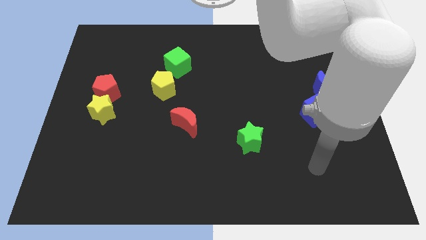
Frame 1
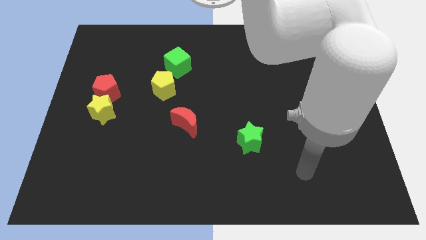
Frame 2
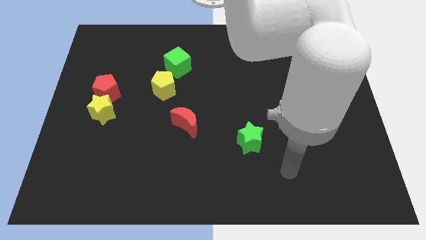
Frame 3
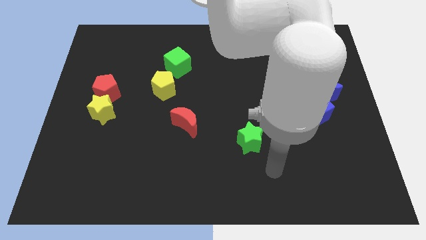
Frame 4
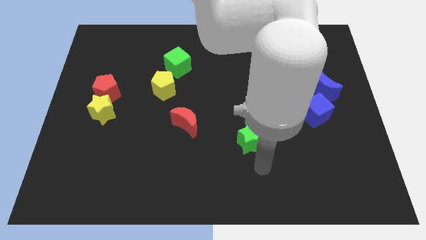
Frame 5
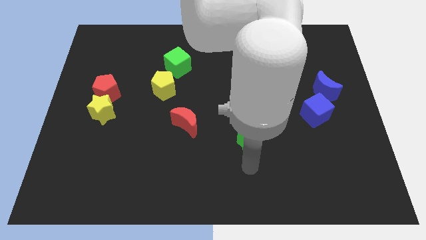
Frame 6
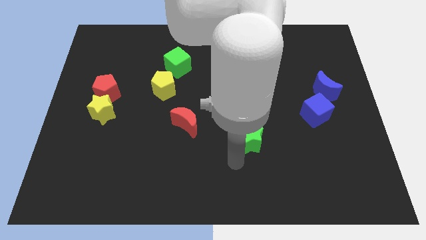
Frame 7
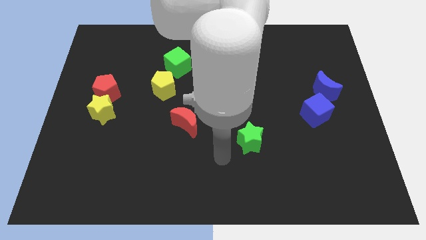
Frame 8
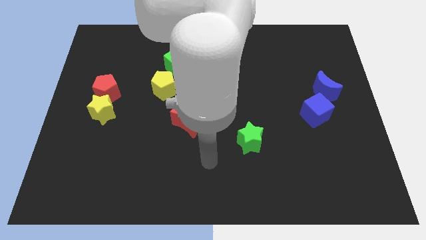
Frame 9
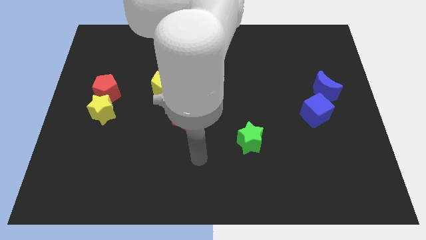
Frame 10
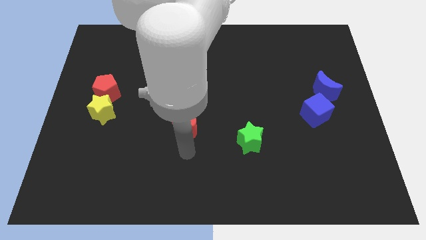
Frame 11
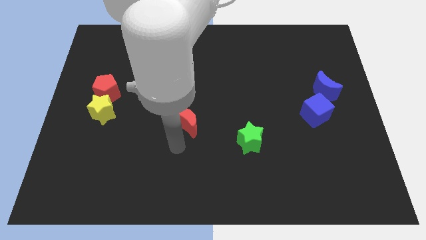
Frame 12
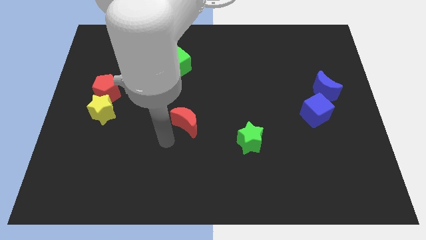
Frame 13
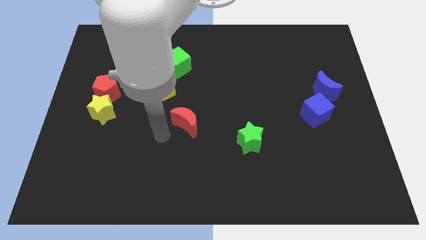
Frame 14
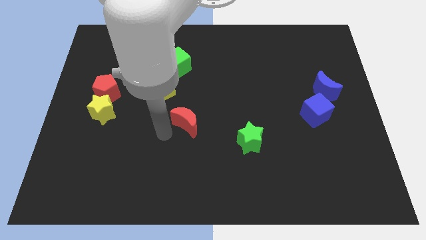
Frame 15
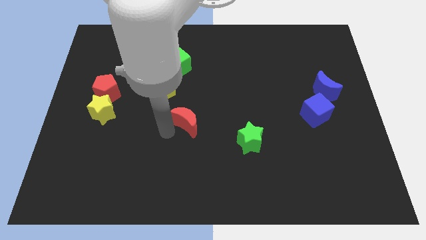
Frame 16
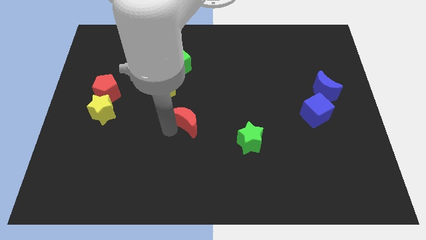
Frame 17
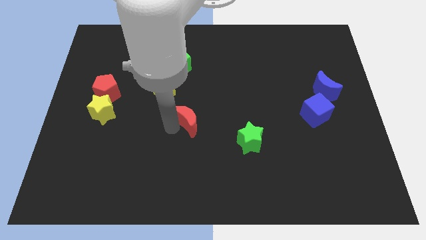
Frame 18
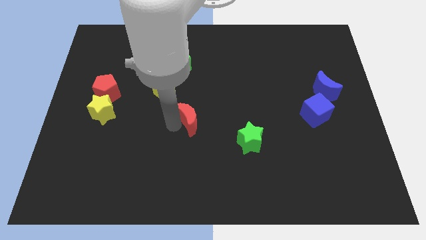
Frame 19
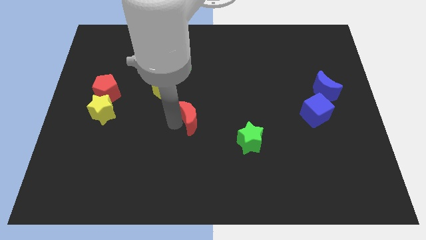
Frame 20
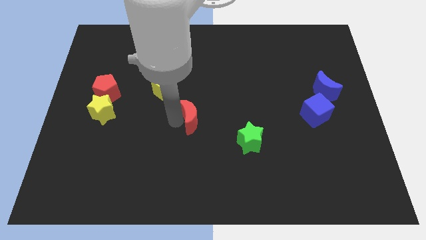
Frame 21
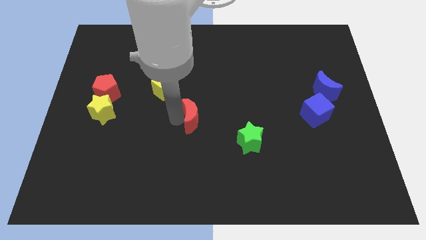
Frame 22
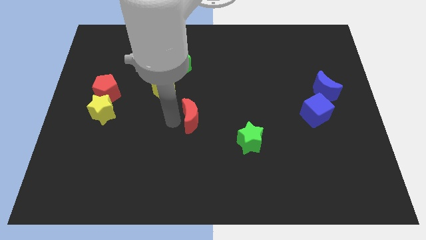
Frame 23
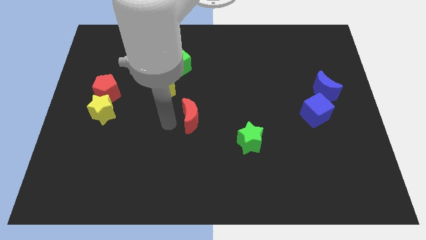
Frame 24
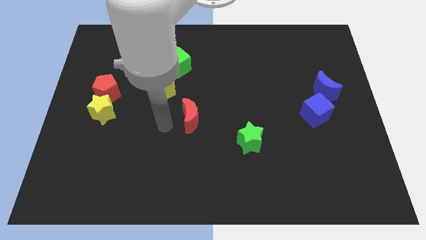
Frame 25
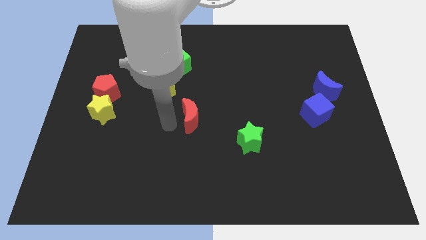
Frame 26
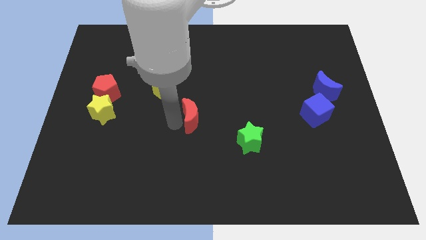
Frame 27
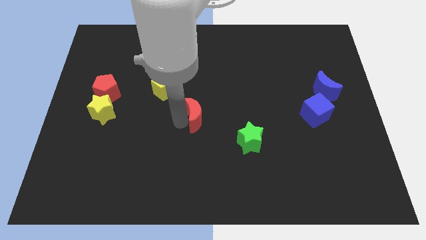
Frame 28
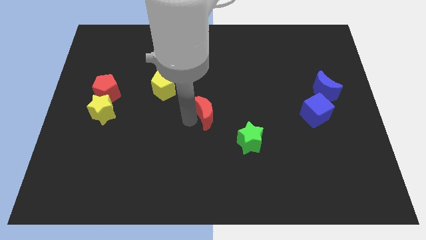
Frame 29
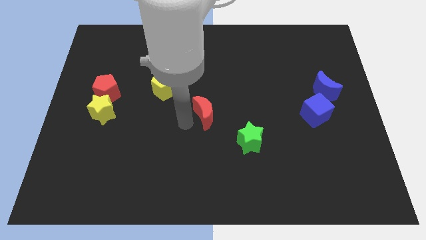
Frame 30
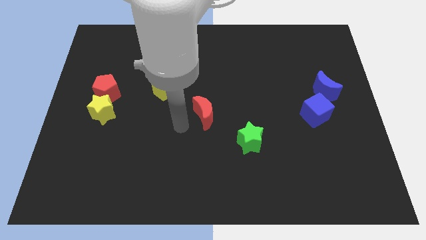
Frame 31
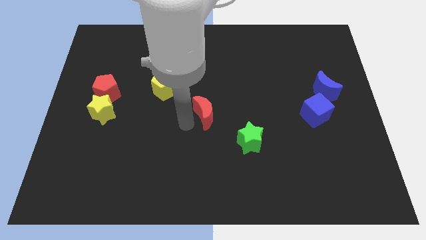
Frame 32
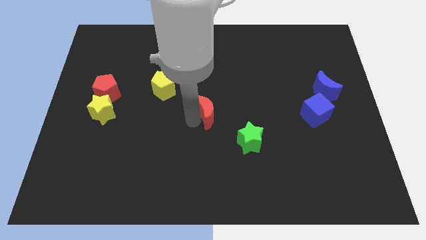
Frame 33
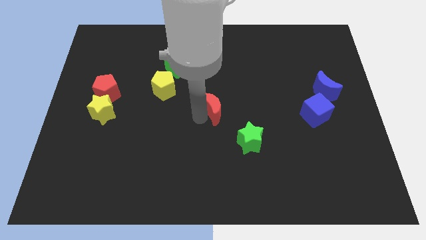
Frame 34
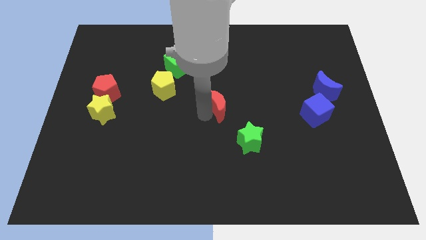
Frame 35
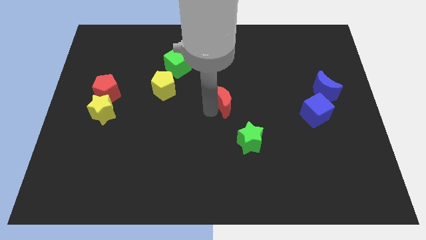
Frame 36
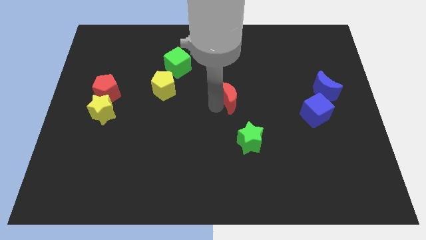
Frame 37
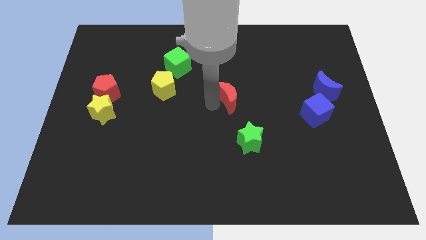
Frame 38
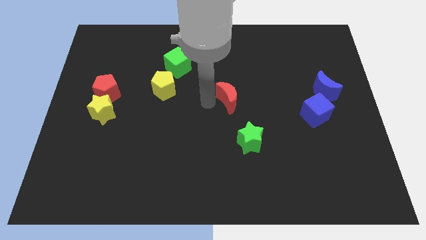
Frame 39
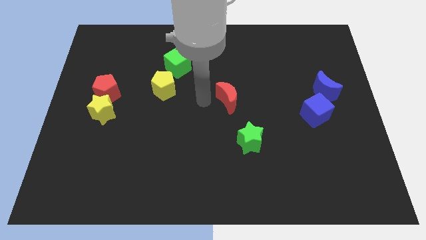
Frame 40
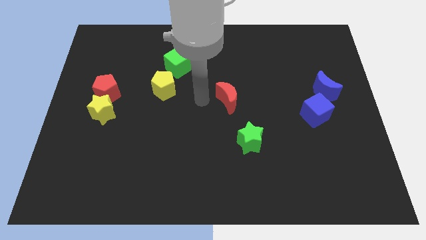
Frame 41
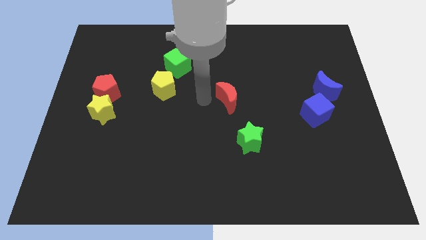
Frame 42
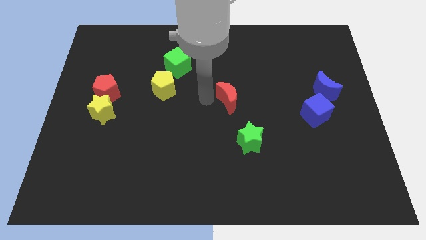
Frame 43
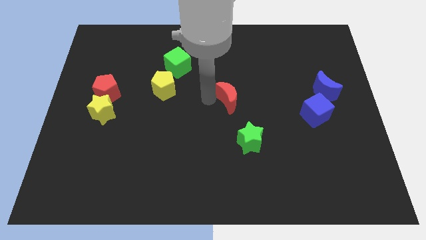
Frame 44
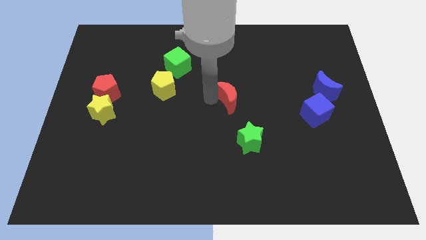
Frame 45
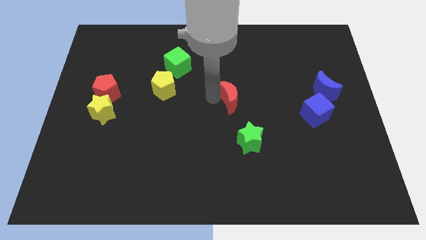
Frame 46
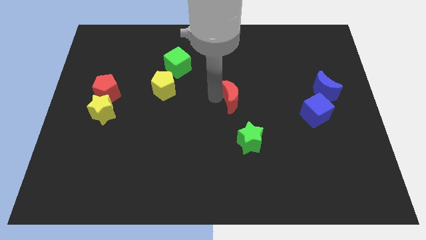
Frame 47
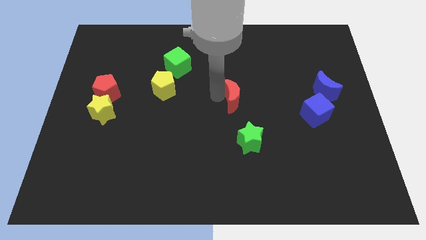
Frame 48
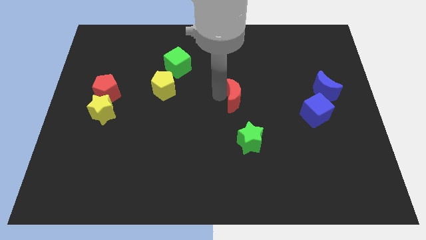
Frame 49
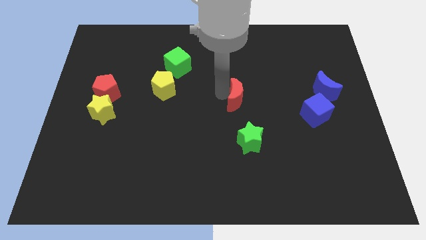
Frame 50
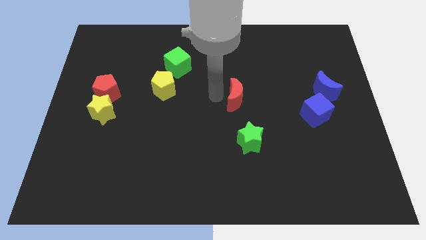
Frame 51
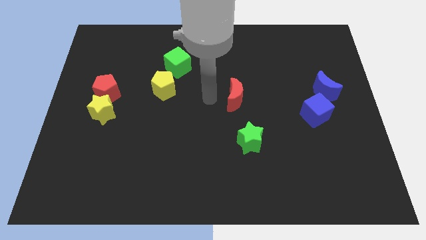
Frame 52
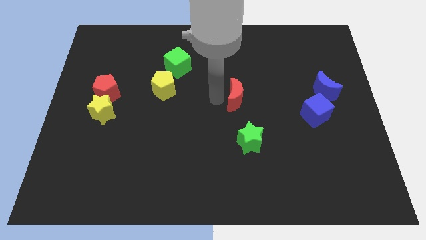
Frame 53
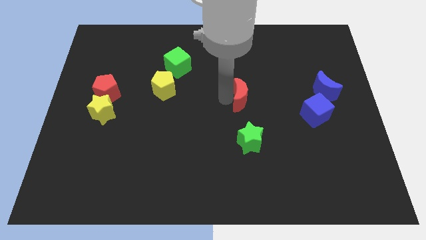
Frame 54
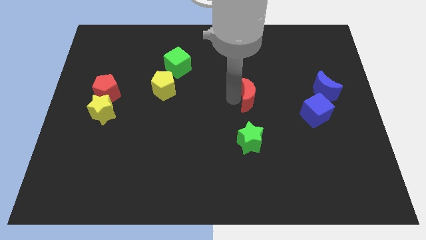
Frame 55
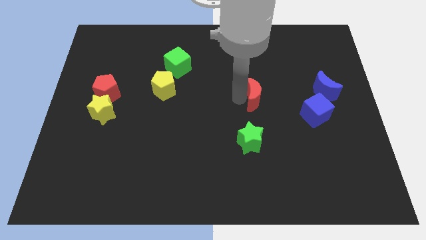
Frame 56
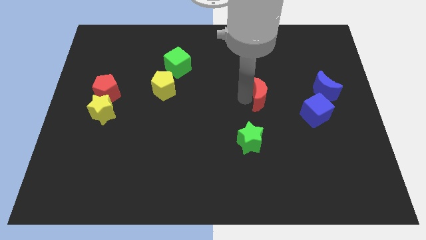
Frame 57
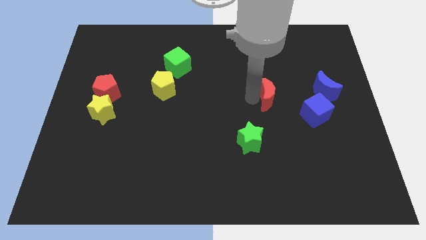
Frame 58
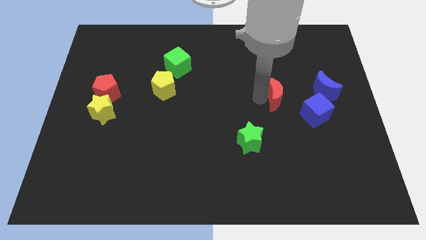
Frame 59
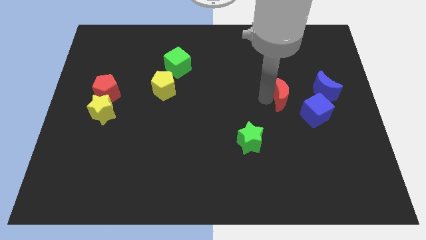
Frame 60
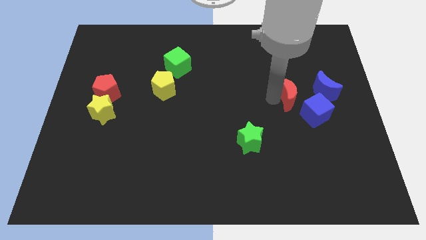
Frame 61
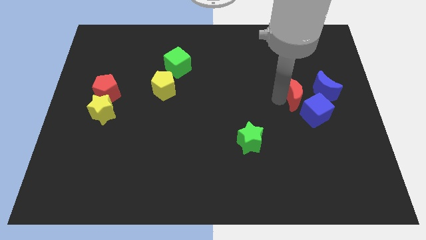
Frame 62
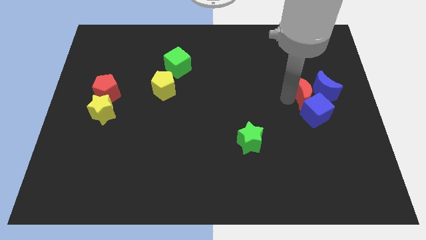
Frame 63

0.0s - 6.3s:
put the red moon close to the blue moon

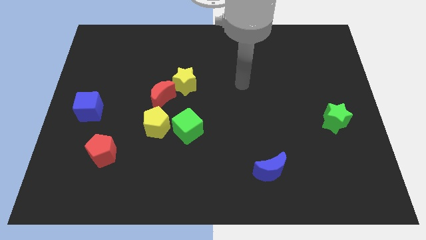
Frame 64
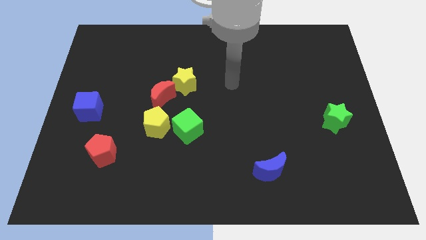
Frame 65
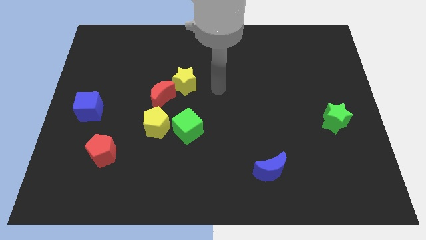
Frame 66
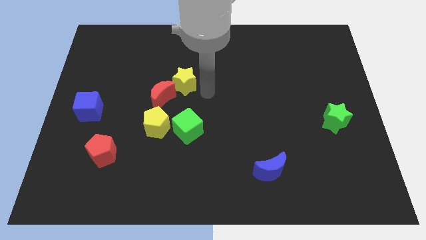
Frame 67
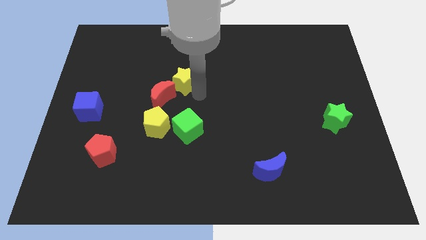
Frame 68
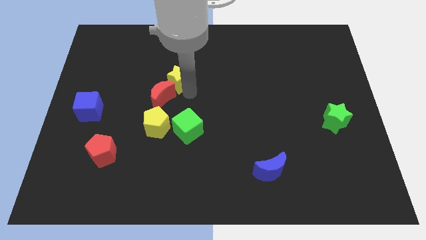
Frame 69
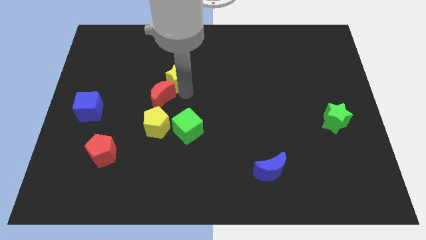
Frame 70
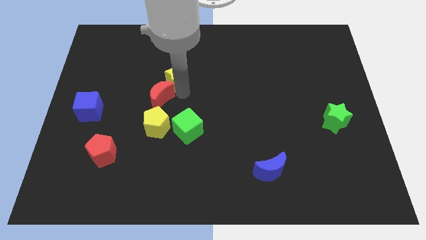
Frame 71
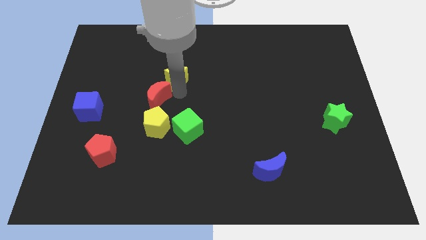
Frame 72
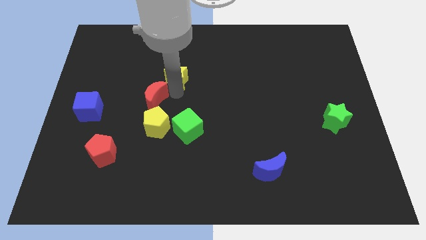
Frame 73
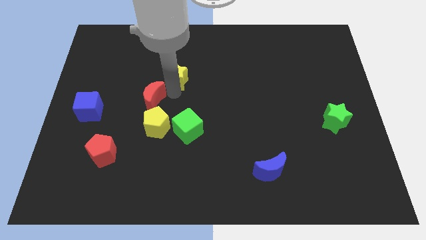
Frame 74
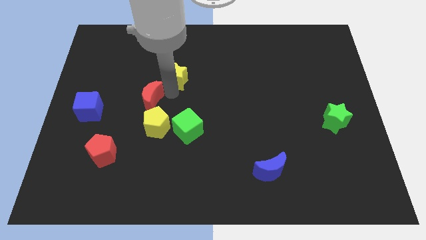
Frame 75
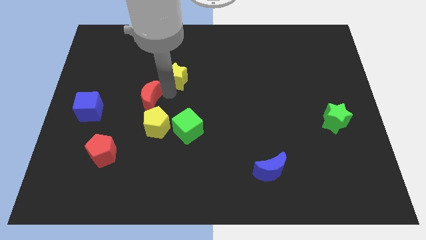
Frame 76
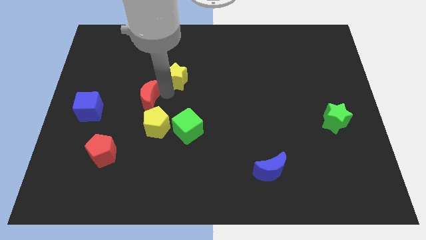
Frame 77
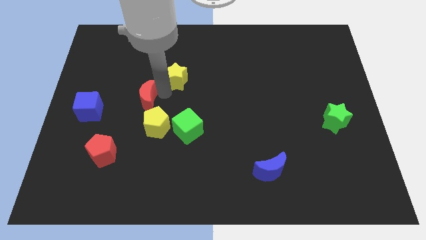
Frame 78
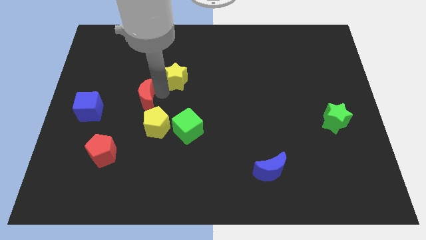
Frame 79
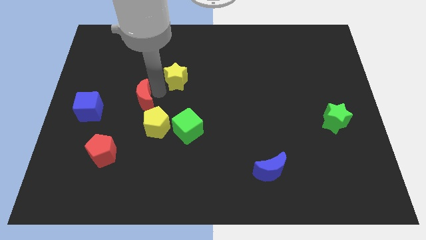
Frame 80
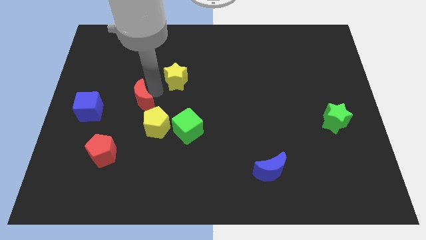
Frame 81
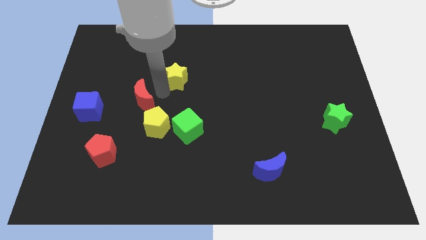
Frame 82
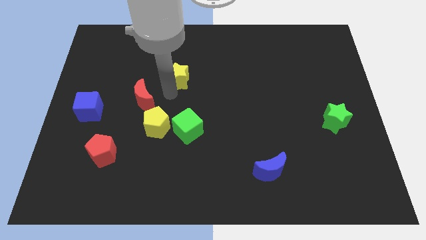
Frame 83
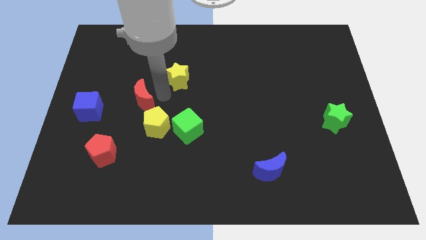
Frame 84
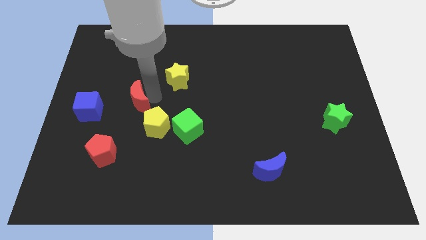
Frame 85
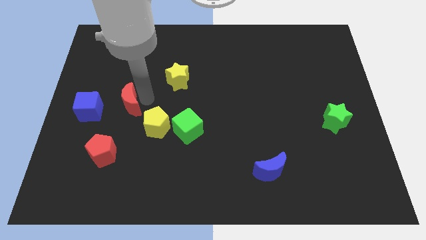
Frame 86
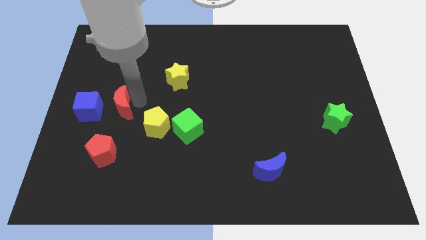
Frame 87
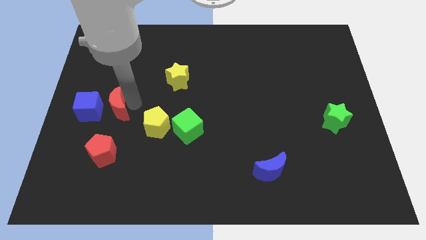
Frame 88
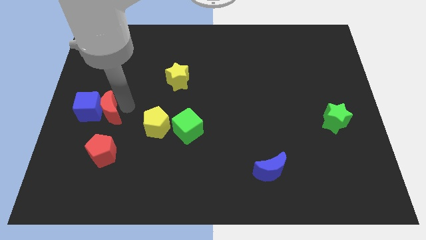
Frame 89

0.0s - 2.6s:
slide the red moon close to the blue cube
